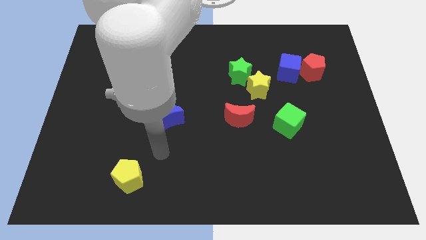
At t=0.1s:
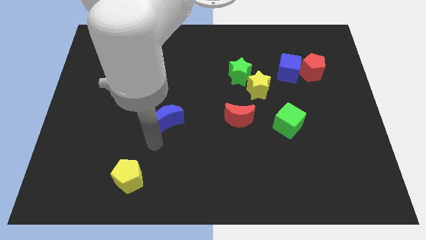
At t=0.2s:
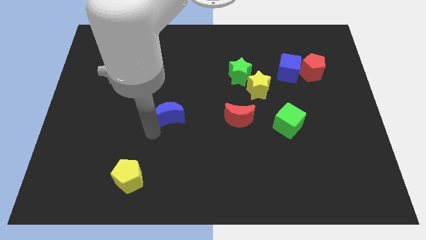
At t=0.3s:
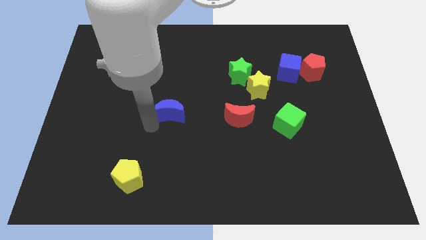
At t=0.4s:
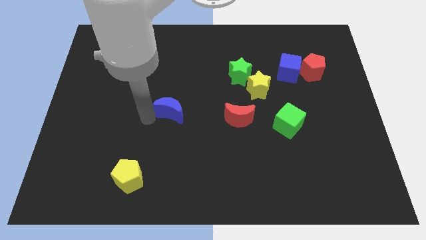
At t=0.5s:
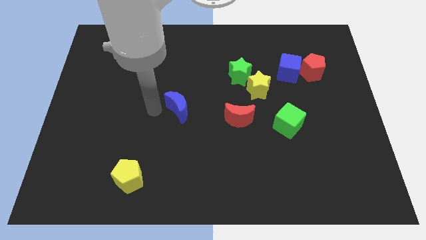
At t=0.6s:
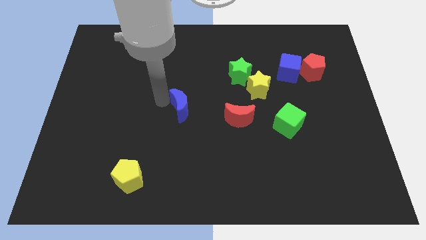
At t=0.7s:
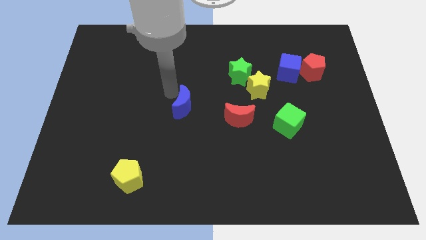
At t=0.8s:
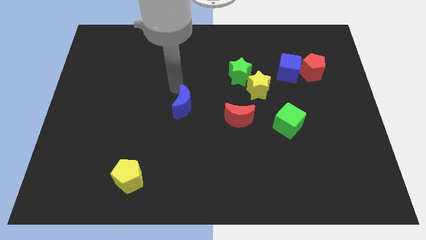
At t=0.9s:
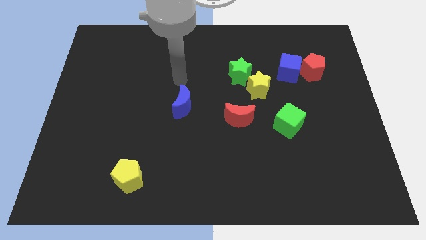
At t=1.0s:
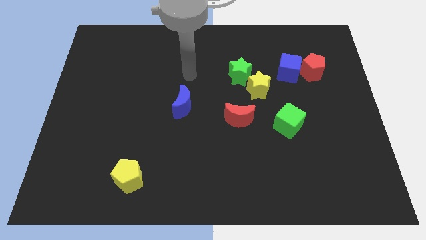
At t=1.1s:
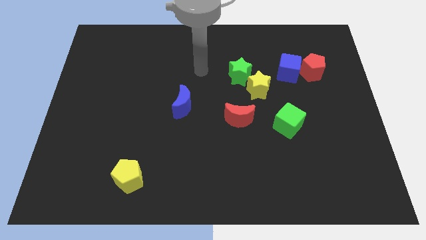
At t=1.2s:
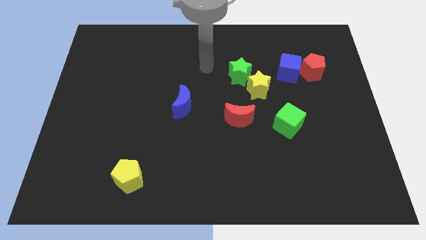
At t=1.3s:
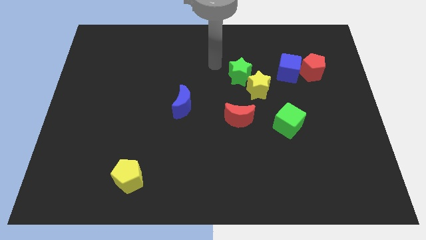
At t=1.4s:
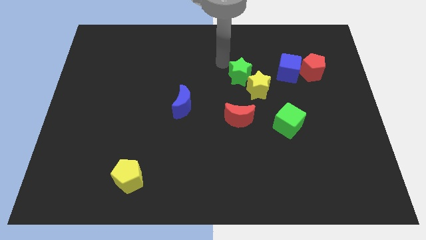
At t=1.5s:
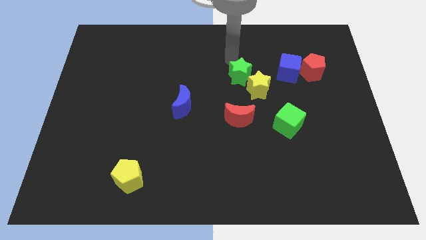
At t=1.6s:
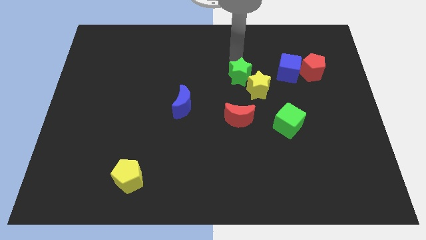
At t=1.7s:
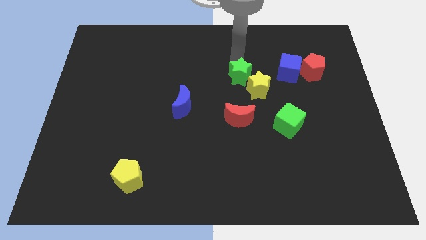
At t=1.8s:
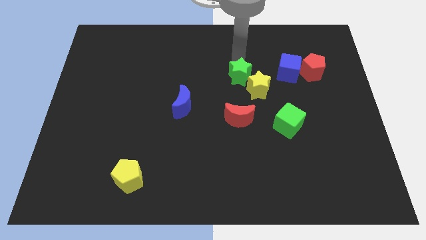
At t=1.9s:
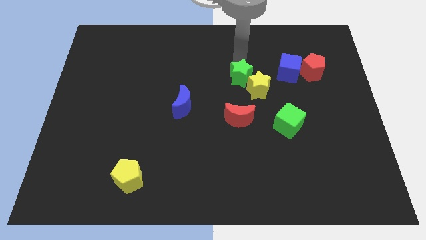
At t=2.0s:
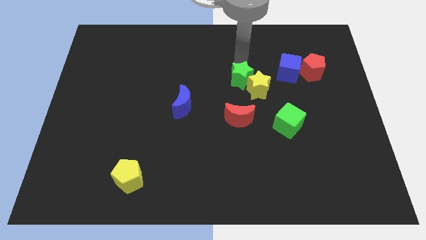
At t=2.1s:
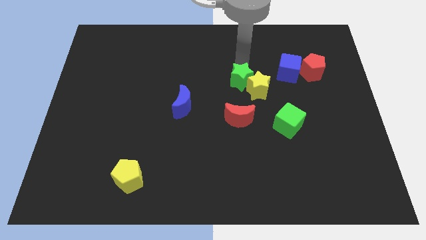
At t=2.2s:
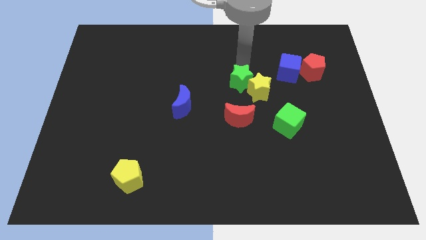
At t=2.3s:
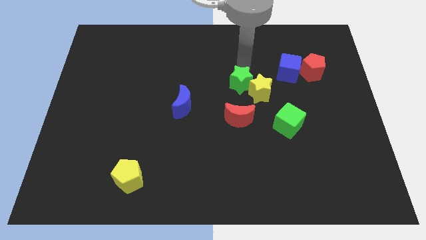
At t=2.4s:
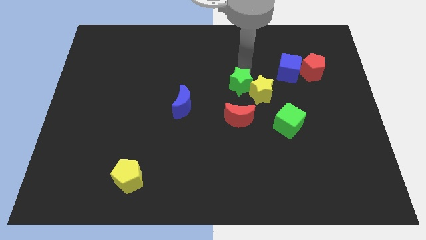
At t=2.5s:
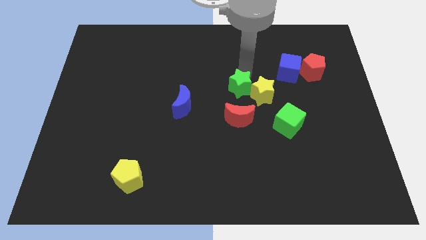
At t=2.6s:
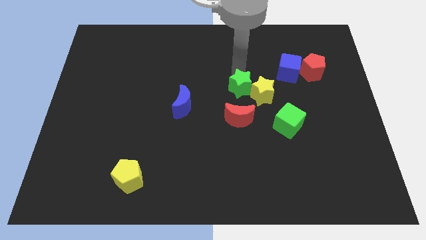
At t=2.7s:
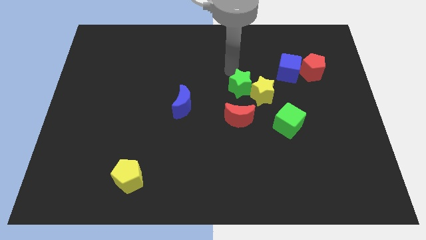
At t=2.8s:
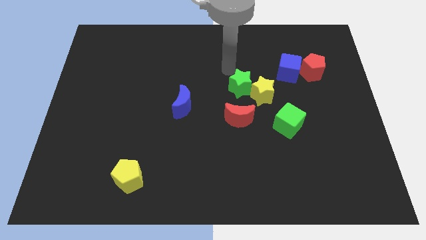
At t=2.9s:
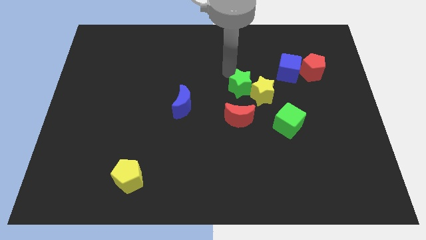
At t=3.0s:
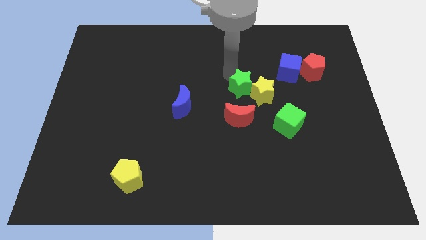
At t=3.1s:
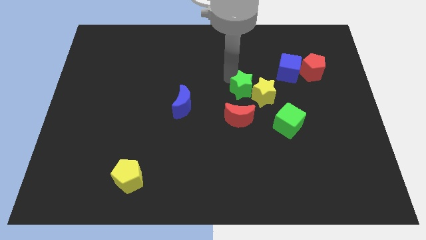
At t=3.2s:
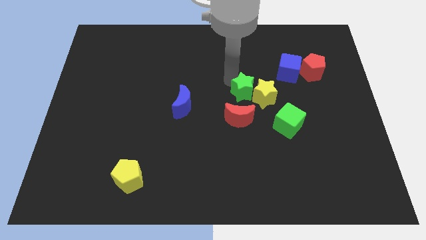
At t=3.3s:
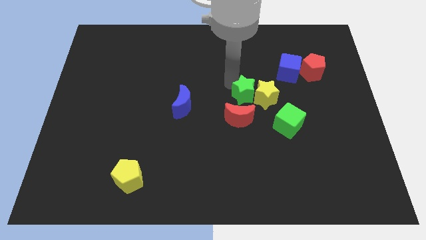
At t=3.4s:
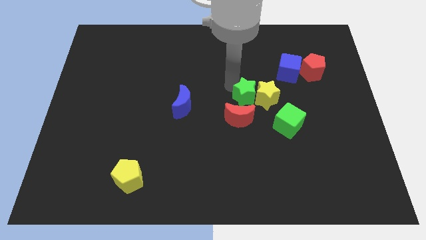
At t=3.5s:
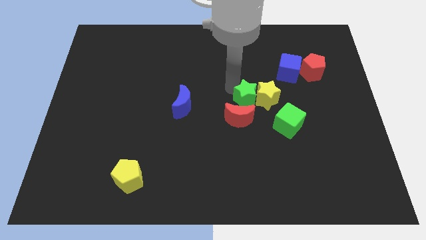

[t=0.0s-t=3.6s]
slide the green star somewhat down

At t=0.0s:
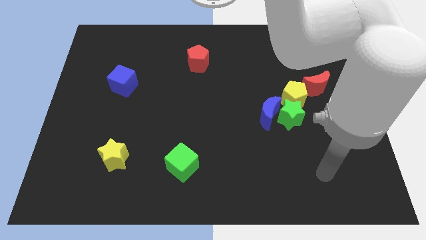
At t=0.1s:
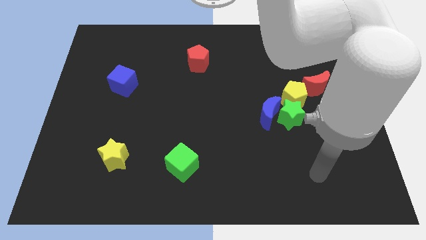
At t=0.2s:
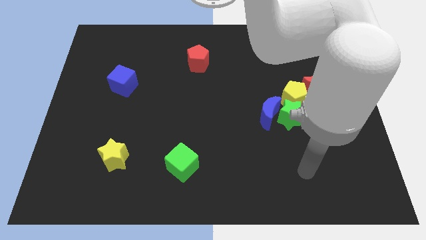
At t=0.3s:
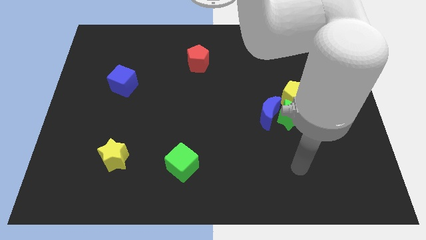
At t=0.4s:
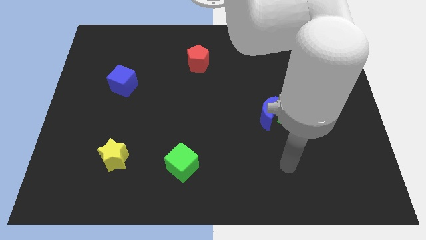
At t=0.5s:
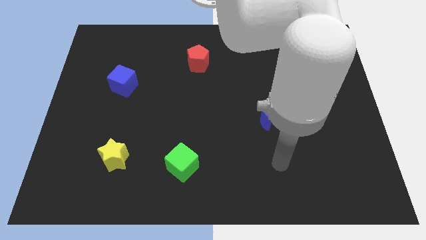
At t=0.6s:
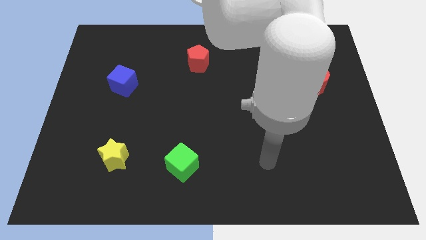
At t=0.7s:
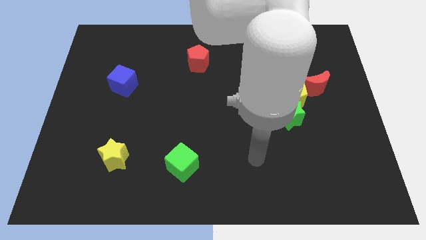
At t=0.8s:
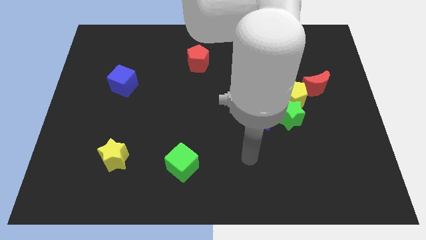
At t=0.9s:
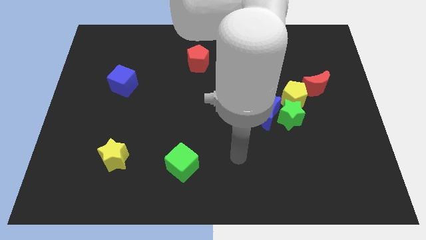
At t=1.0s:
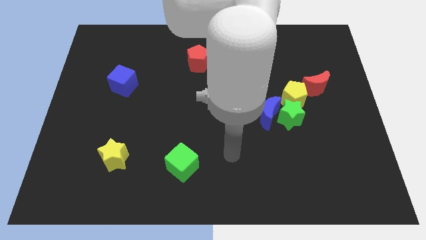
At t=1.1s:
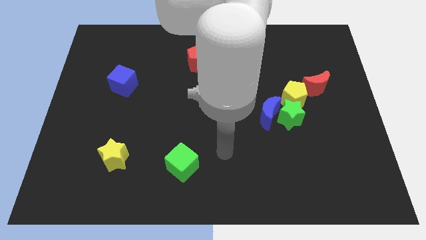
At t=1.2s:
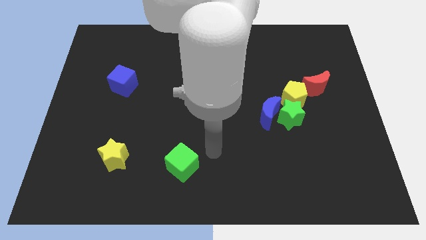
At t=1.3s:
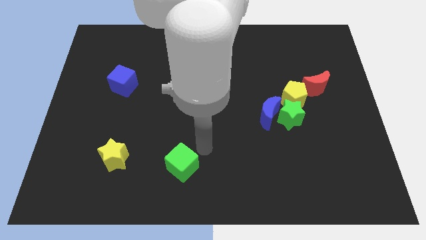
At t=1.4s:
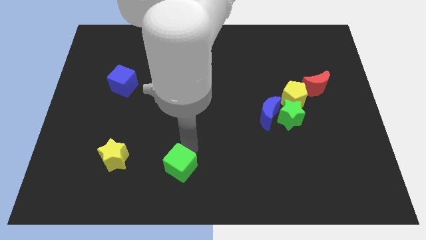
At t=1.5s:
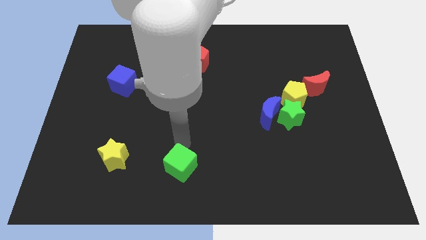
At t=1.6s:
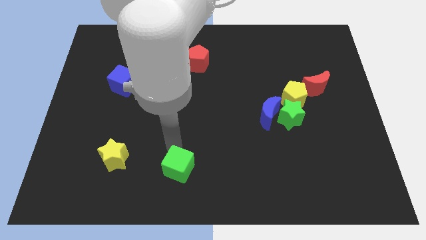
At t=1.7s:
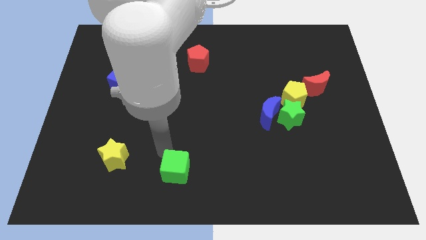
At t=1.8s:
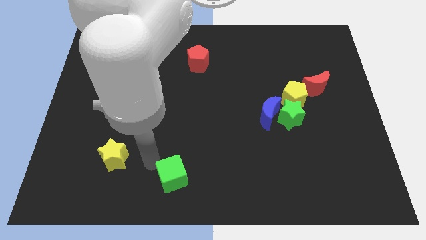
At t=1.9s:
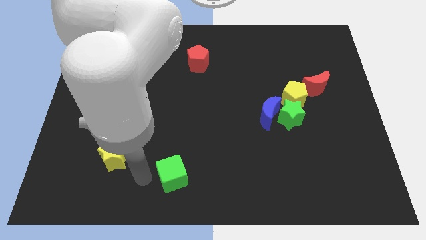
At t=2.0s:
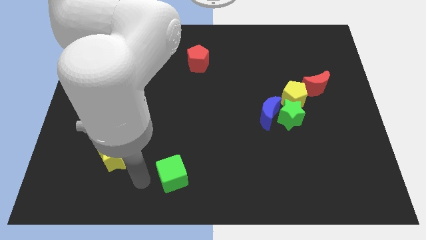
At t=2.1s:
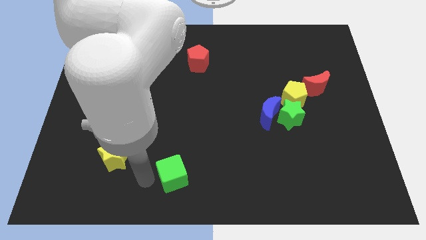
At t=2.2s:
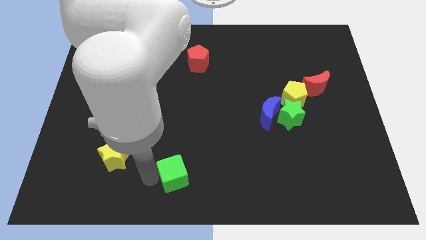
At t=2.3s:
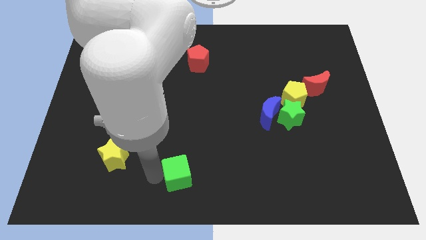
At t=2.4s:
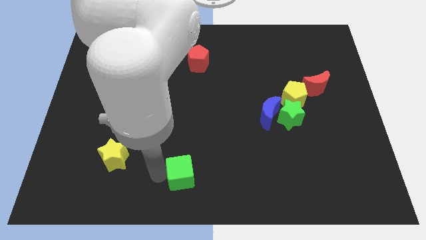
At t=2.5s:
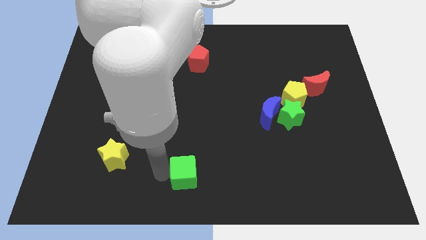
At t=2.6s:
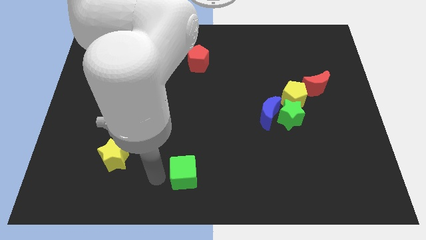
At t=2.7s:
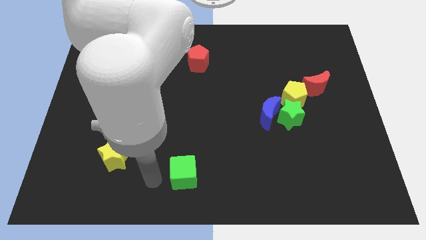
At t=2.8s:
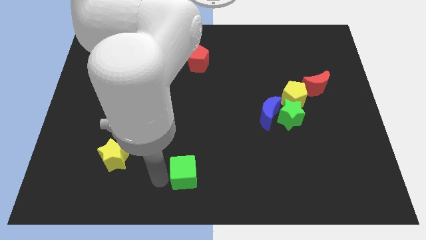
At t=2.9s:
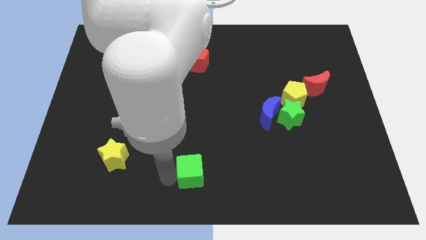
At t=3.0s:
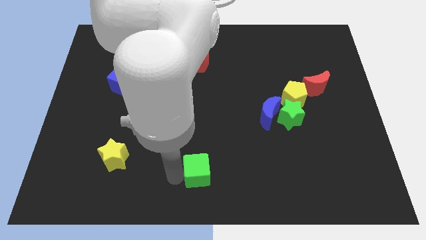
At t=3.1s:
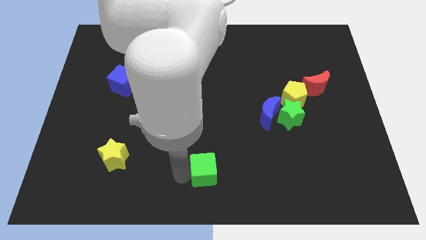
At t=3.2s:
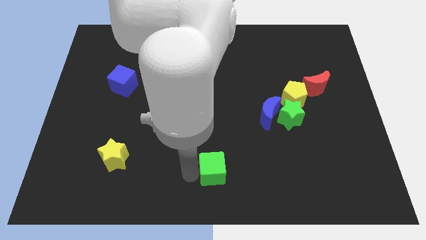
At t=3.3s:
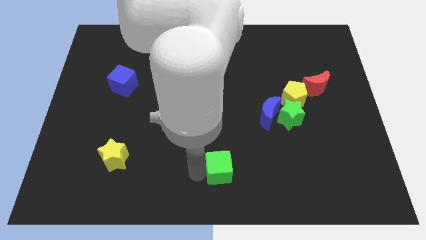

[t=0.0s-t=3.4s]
slide the green cube right somewhat

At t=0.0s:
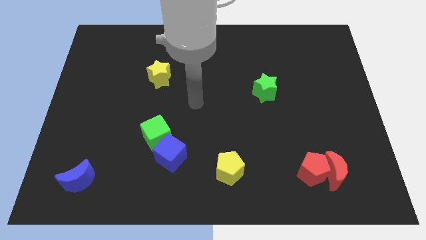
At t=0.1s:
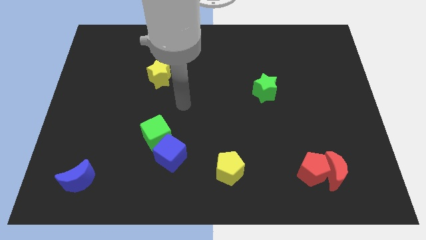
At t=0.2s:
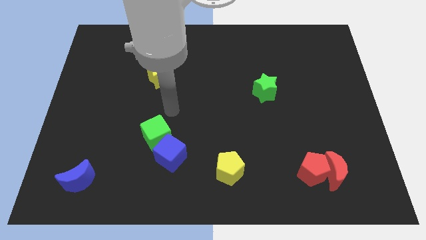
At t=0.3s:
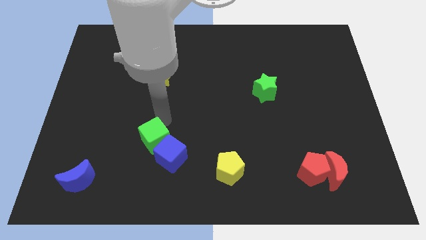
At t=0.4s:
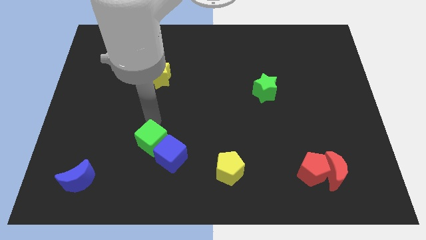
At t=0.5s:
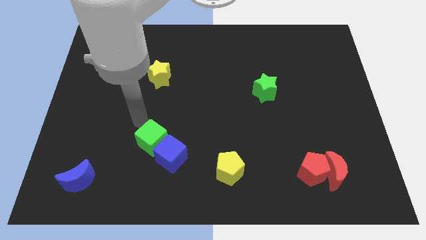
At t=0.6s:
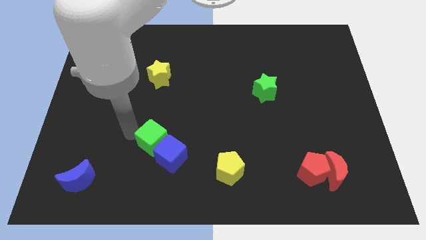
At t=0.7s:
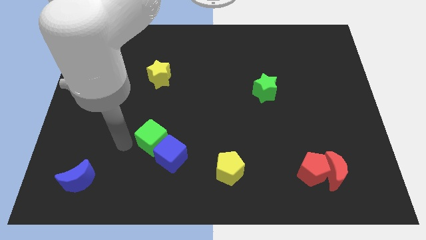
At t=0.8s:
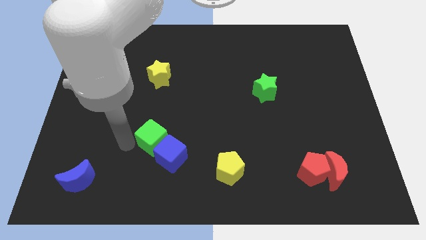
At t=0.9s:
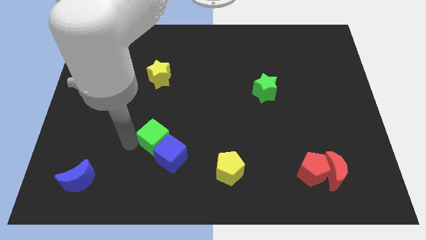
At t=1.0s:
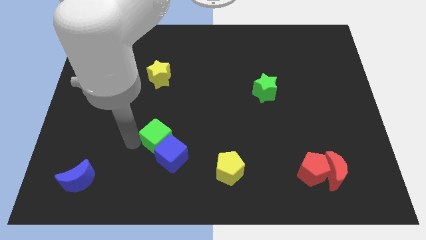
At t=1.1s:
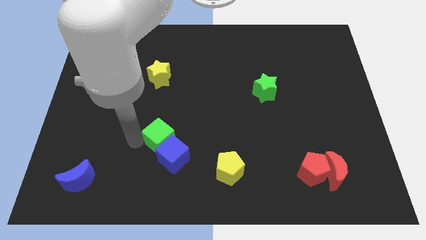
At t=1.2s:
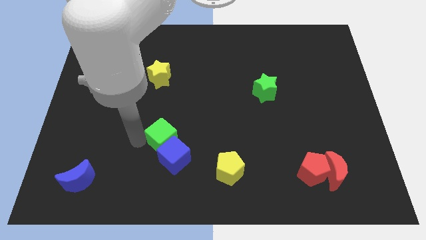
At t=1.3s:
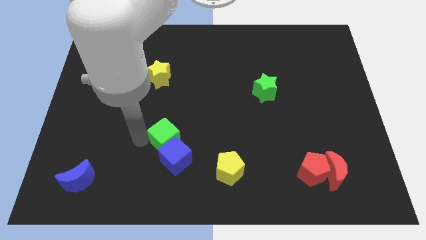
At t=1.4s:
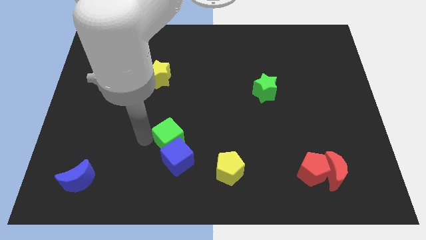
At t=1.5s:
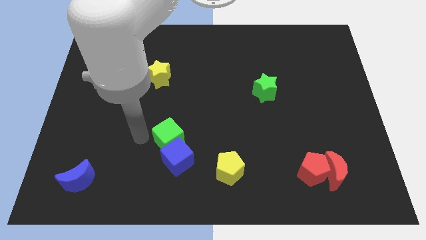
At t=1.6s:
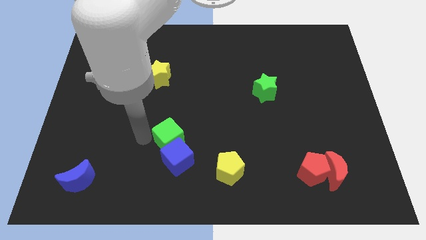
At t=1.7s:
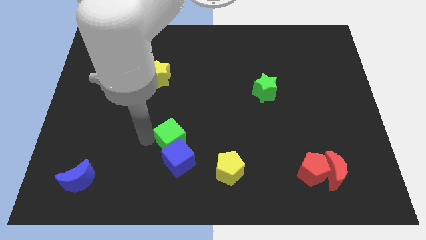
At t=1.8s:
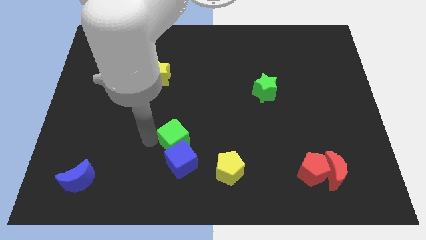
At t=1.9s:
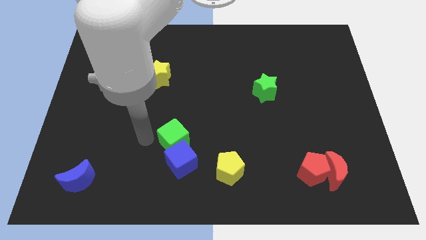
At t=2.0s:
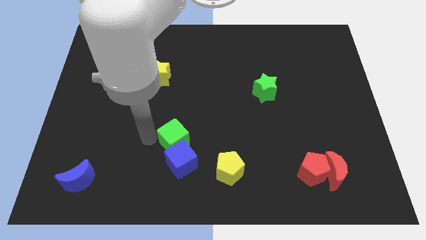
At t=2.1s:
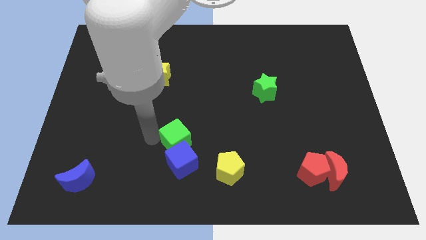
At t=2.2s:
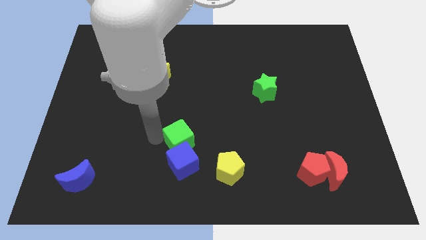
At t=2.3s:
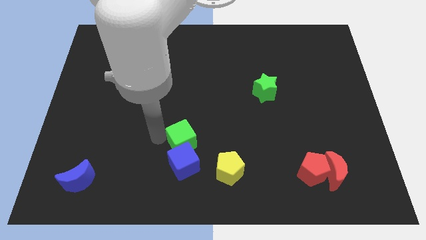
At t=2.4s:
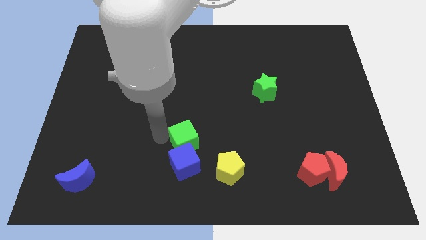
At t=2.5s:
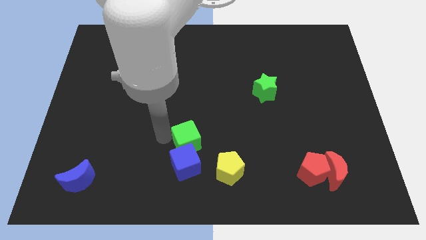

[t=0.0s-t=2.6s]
slightly push the green cube to the right
